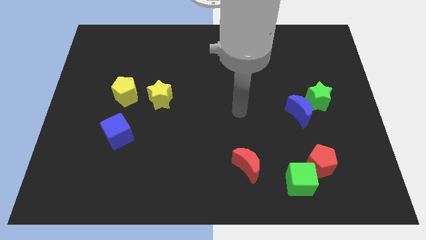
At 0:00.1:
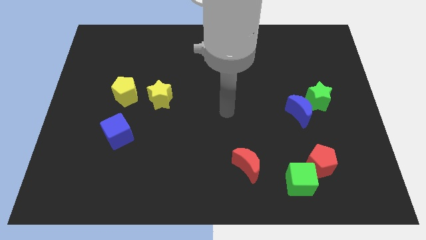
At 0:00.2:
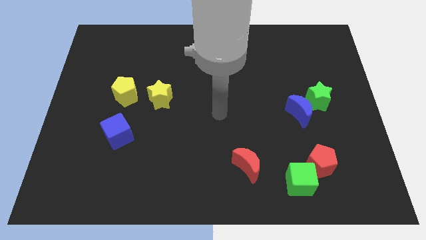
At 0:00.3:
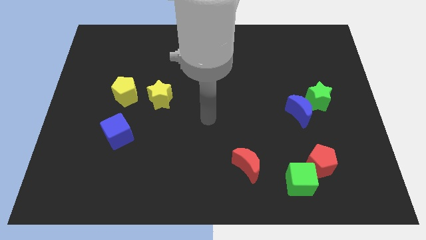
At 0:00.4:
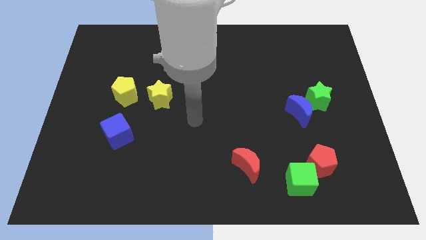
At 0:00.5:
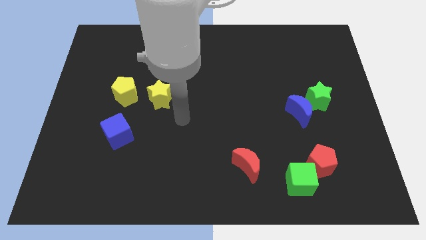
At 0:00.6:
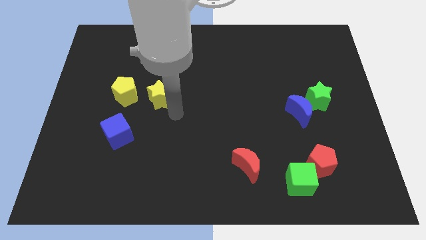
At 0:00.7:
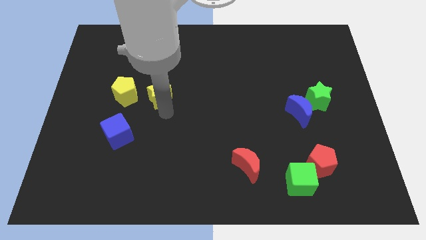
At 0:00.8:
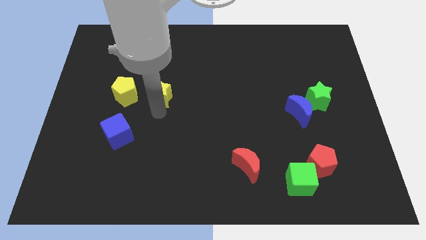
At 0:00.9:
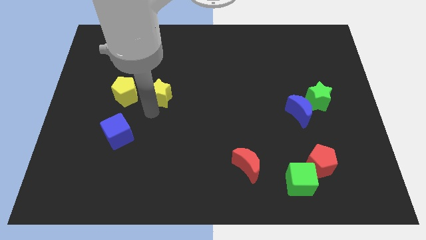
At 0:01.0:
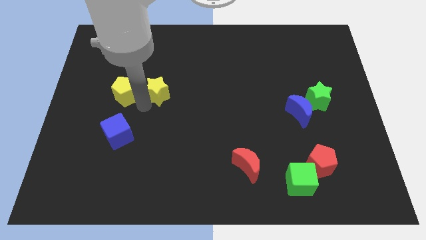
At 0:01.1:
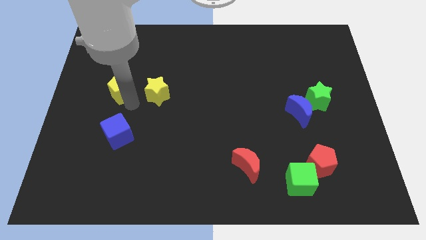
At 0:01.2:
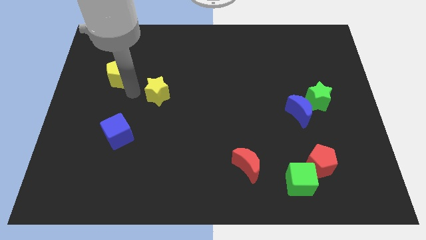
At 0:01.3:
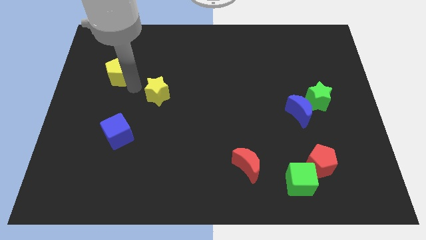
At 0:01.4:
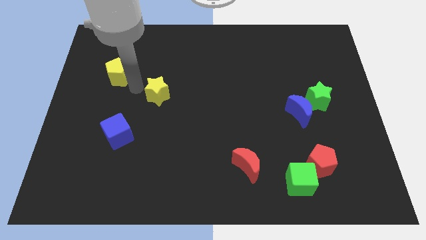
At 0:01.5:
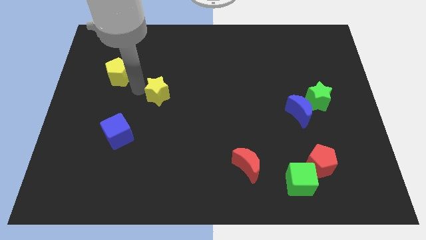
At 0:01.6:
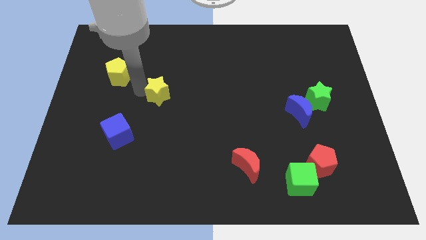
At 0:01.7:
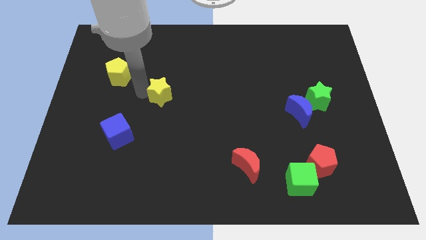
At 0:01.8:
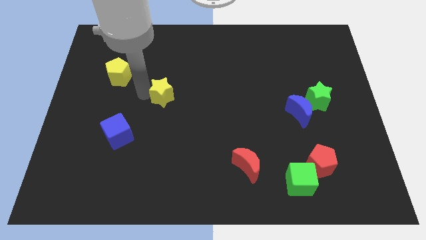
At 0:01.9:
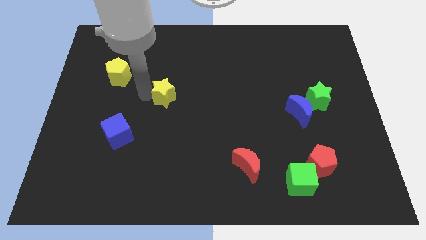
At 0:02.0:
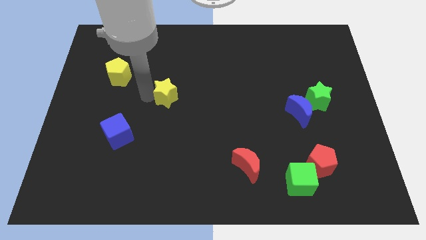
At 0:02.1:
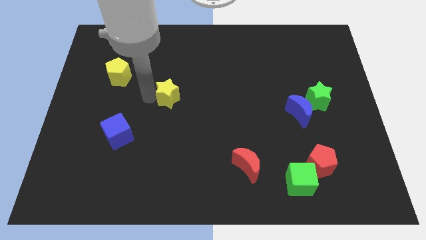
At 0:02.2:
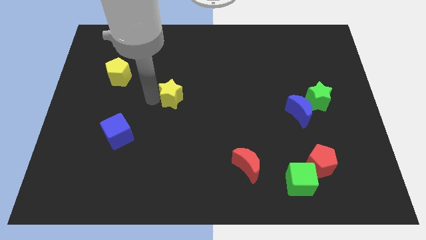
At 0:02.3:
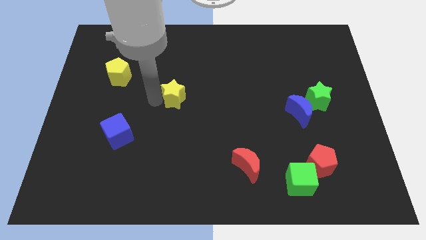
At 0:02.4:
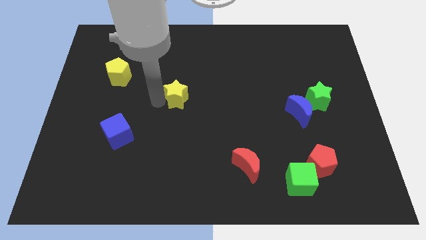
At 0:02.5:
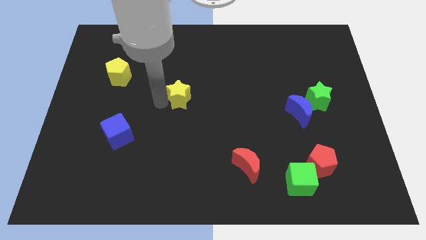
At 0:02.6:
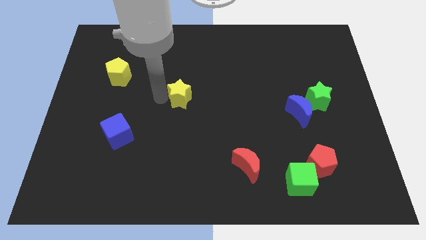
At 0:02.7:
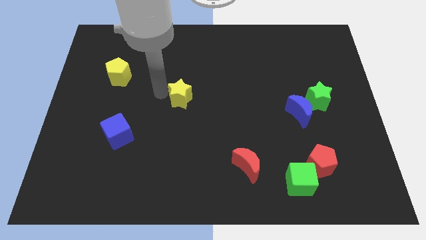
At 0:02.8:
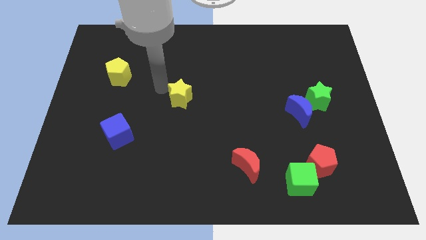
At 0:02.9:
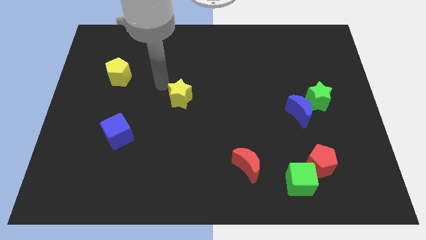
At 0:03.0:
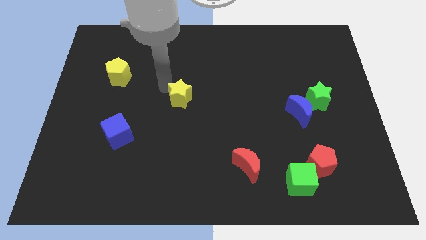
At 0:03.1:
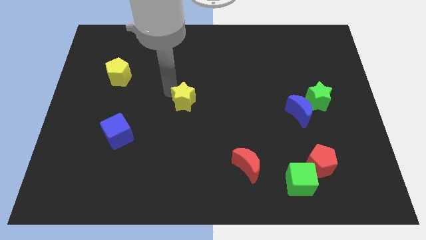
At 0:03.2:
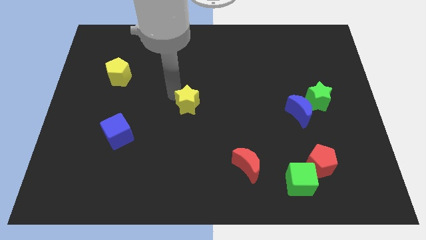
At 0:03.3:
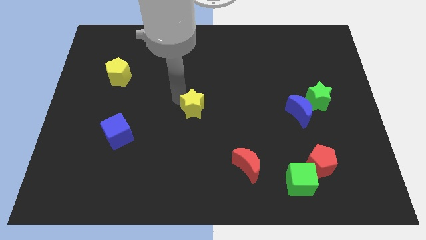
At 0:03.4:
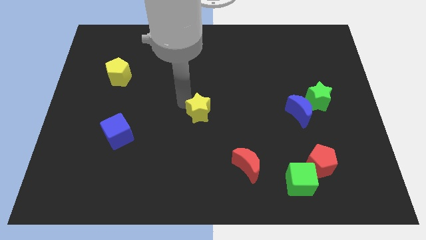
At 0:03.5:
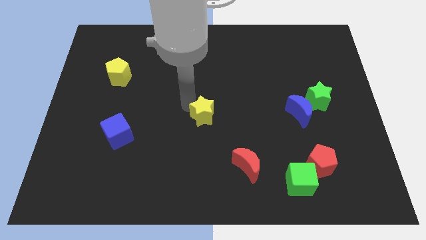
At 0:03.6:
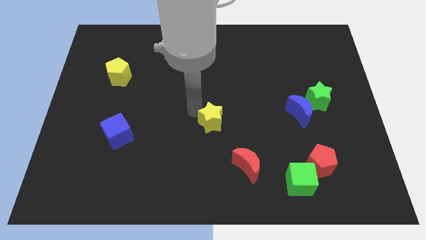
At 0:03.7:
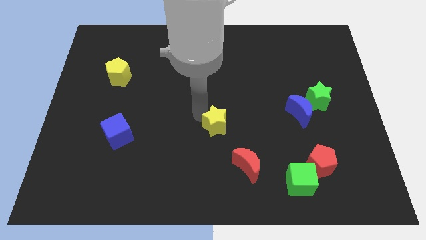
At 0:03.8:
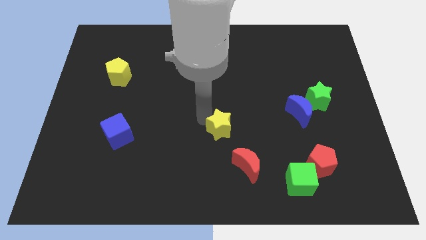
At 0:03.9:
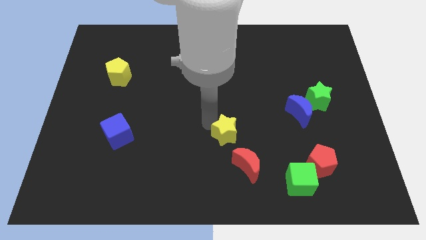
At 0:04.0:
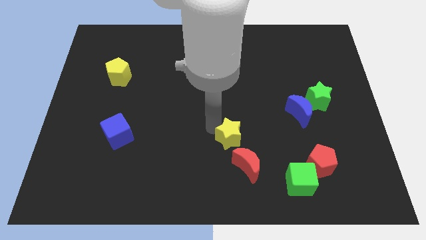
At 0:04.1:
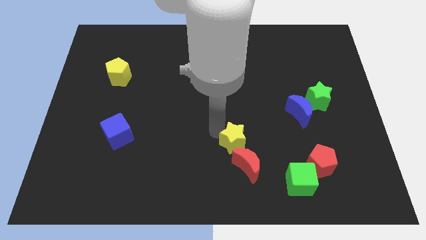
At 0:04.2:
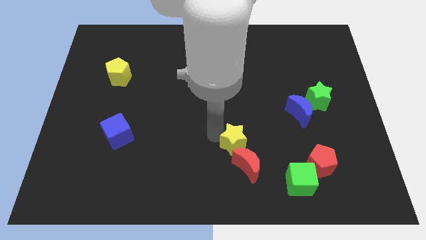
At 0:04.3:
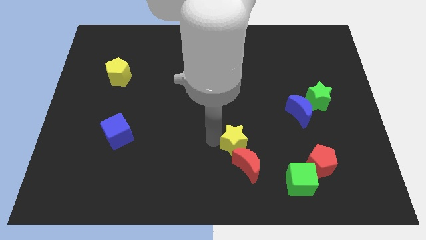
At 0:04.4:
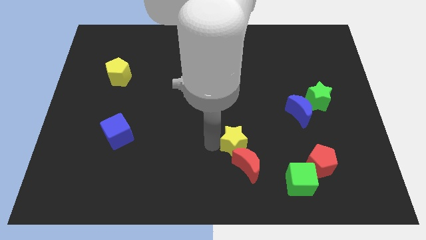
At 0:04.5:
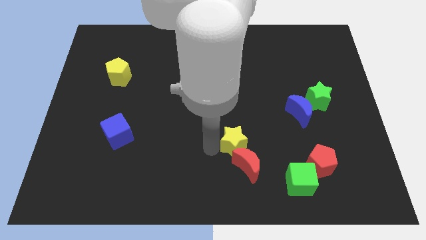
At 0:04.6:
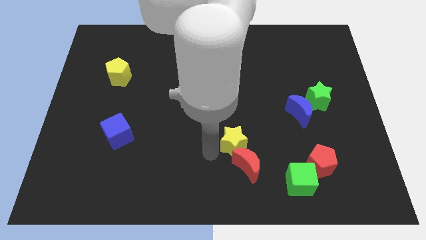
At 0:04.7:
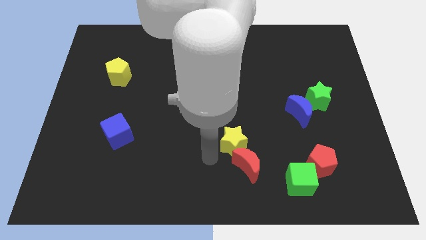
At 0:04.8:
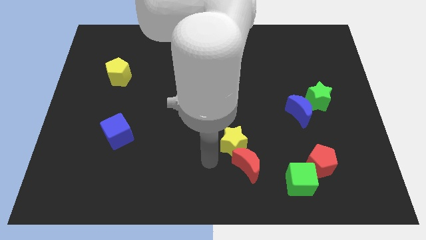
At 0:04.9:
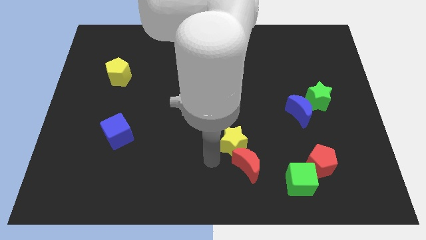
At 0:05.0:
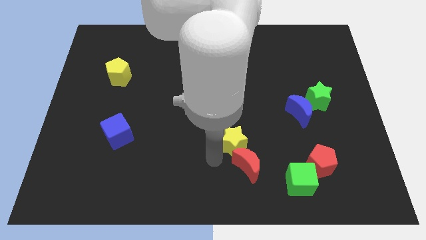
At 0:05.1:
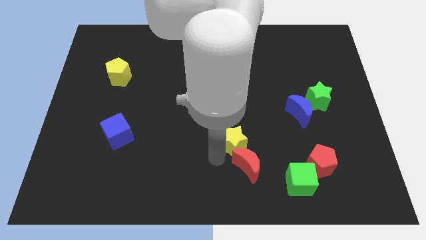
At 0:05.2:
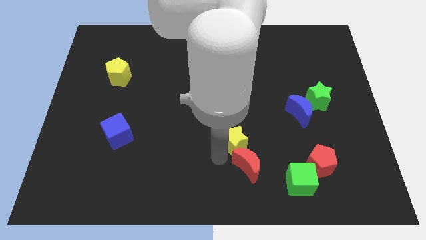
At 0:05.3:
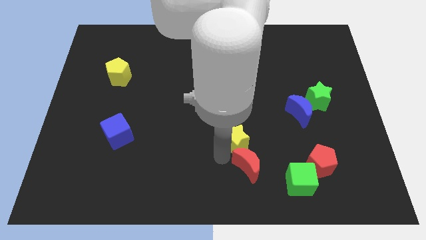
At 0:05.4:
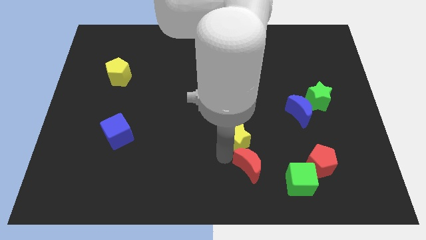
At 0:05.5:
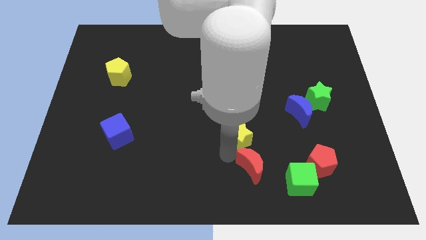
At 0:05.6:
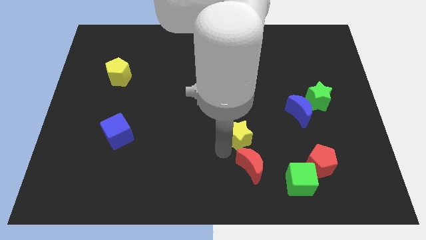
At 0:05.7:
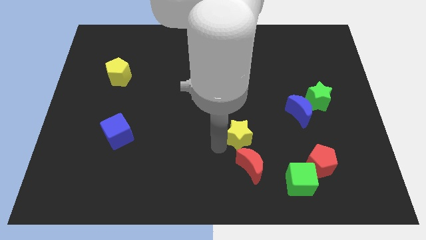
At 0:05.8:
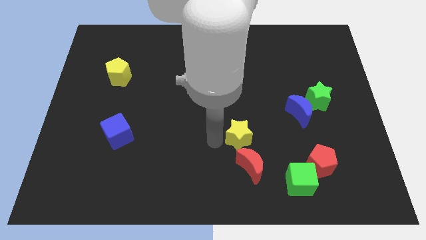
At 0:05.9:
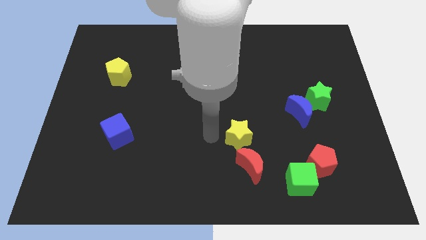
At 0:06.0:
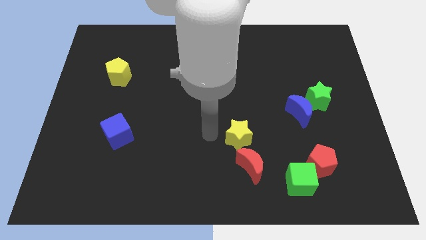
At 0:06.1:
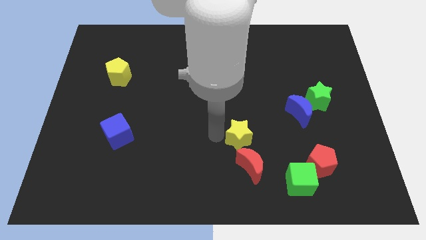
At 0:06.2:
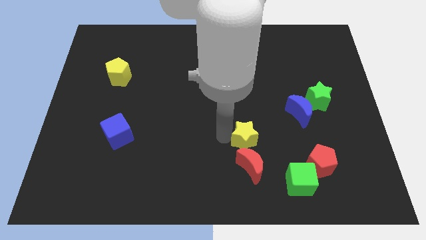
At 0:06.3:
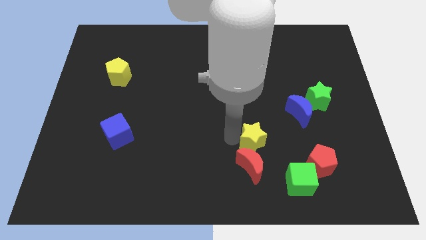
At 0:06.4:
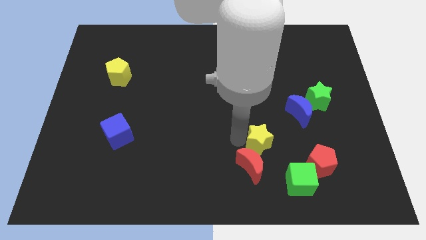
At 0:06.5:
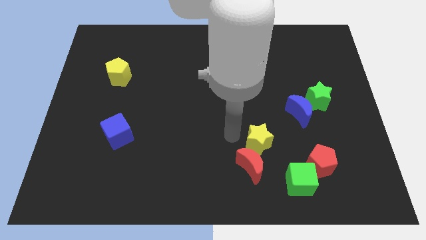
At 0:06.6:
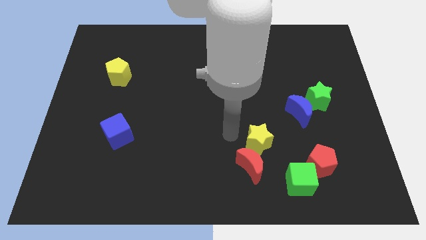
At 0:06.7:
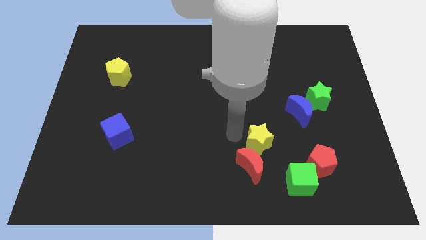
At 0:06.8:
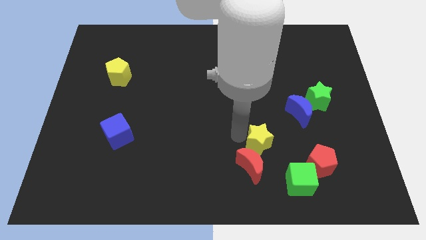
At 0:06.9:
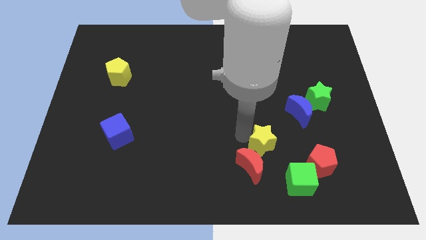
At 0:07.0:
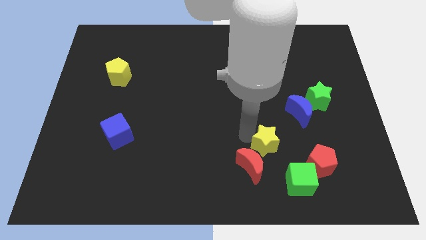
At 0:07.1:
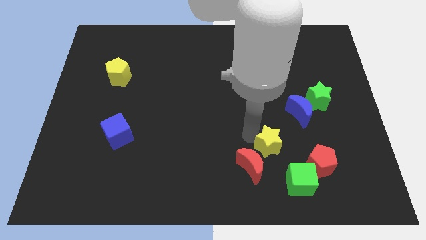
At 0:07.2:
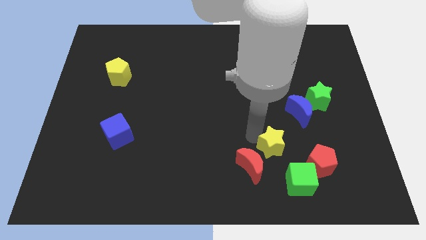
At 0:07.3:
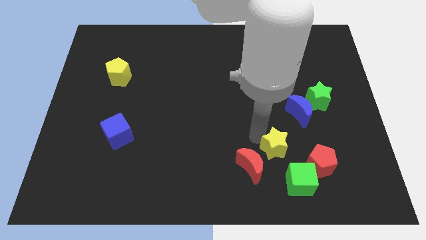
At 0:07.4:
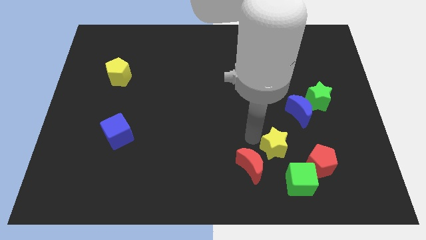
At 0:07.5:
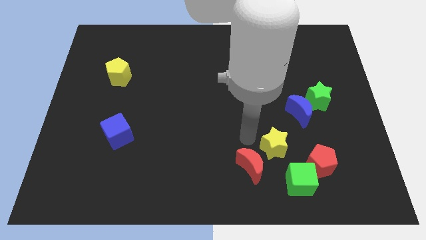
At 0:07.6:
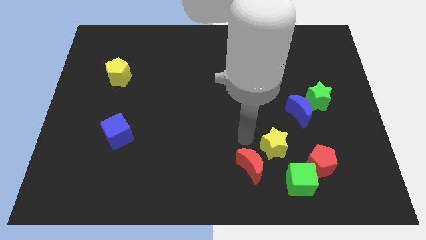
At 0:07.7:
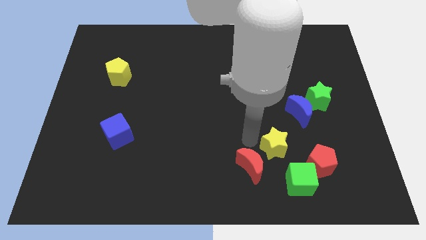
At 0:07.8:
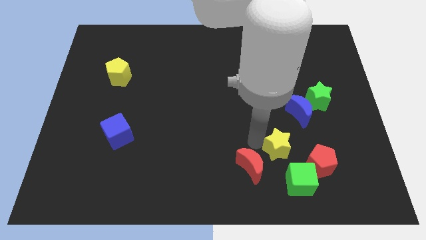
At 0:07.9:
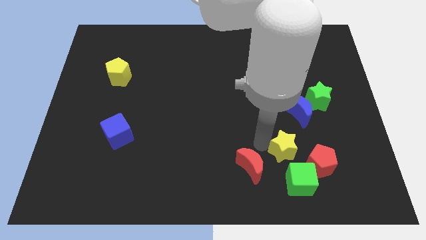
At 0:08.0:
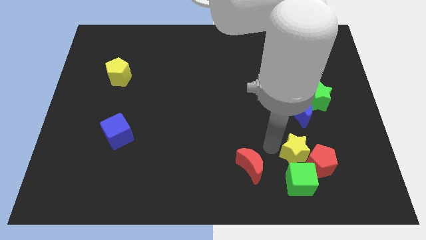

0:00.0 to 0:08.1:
push the yellow star to the red pentagon

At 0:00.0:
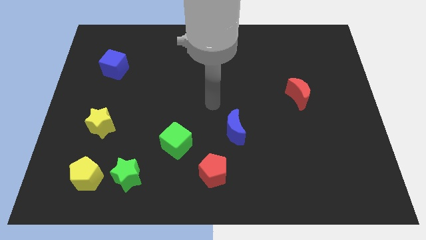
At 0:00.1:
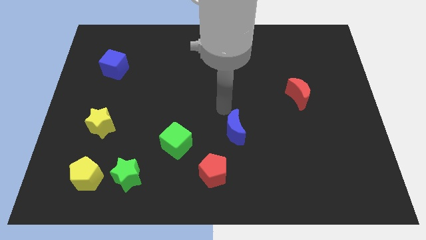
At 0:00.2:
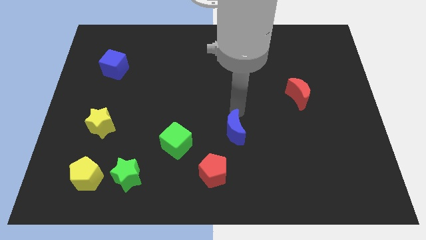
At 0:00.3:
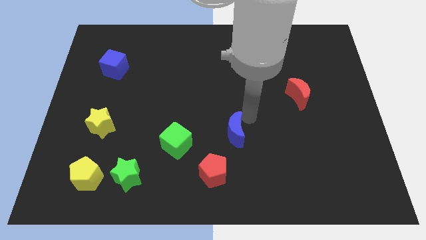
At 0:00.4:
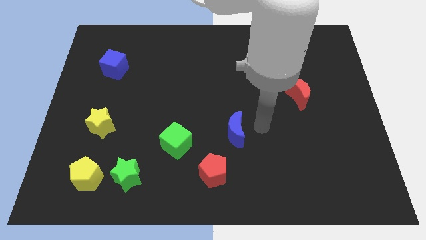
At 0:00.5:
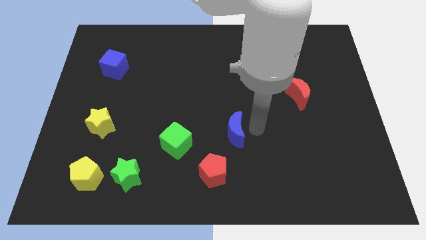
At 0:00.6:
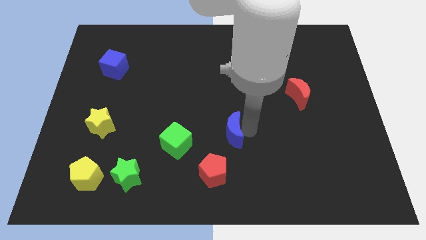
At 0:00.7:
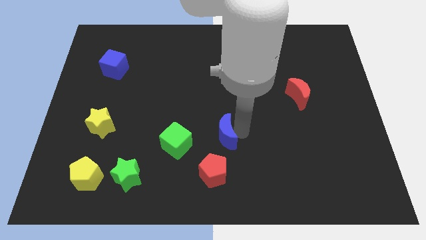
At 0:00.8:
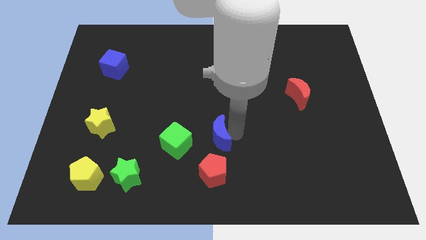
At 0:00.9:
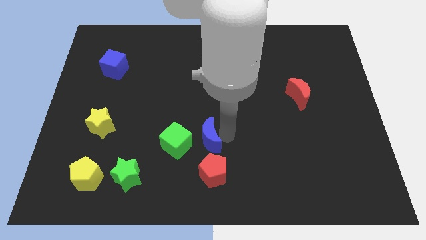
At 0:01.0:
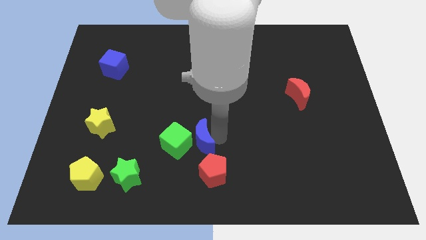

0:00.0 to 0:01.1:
slide the blue moon next to the green cube
